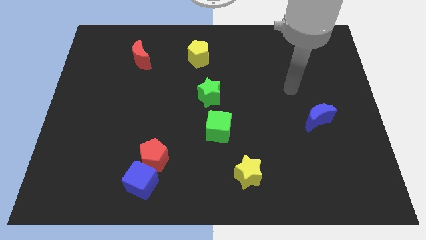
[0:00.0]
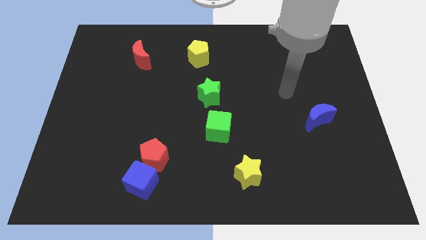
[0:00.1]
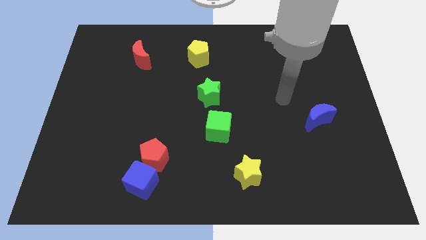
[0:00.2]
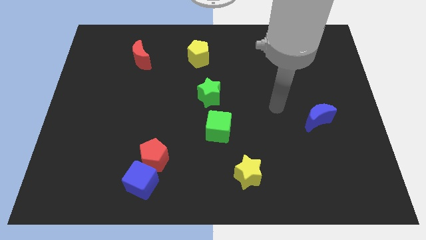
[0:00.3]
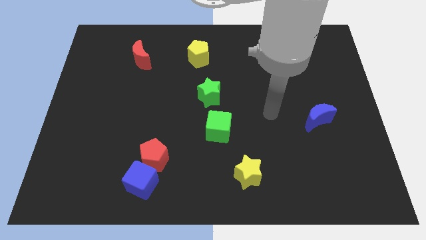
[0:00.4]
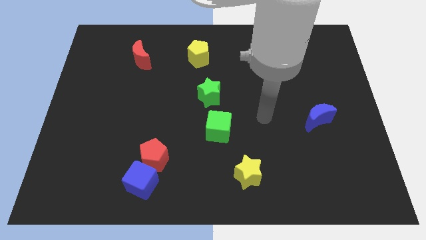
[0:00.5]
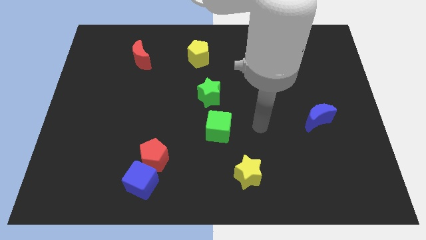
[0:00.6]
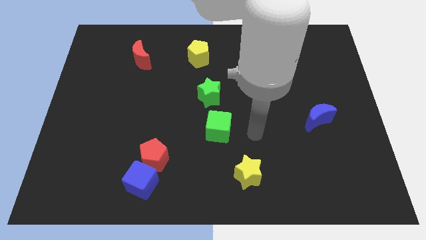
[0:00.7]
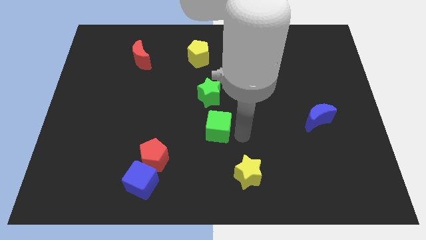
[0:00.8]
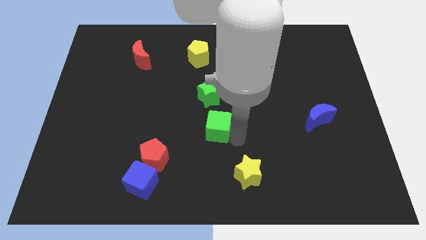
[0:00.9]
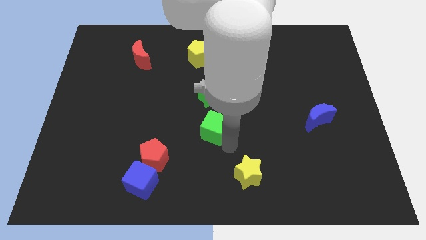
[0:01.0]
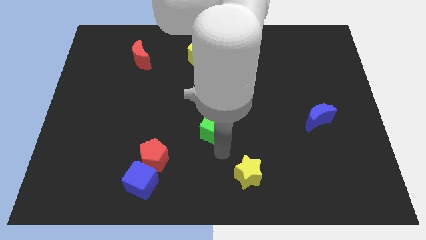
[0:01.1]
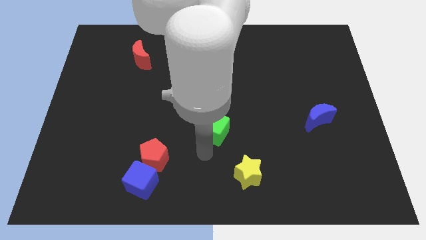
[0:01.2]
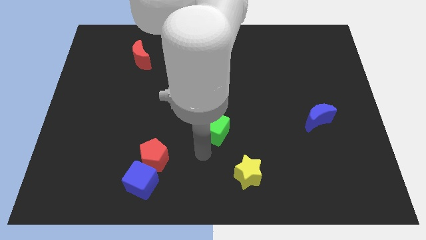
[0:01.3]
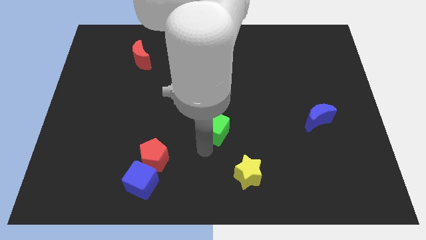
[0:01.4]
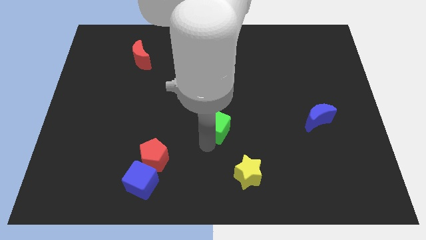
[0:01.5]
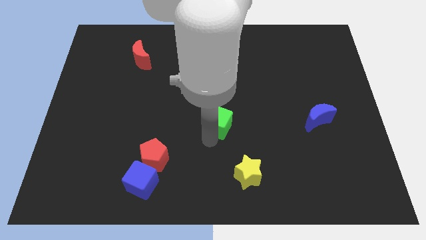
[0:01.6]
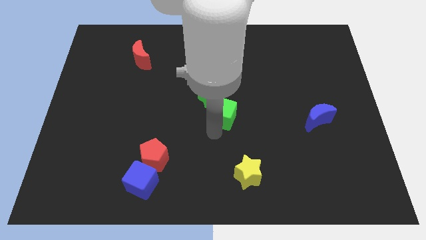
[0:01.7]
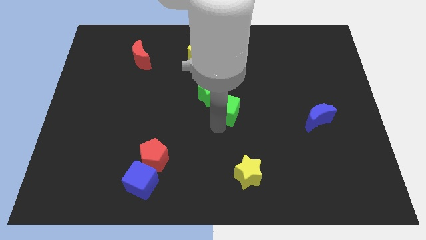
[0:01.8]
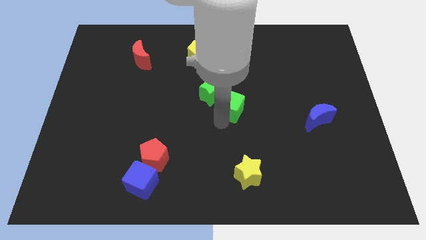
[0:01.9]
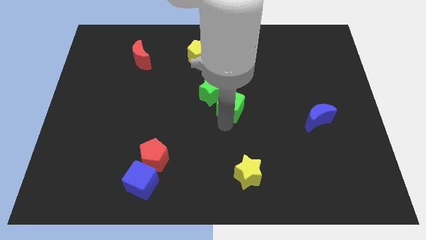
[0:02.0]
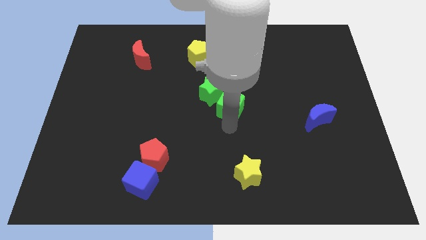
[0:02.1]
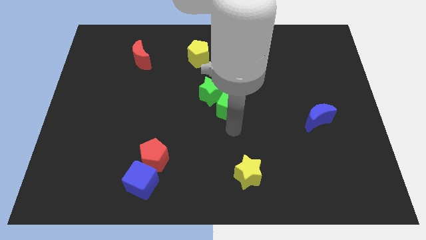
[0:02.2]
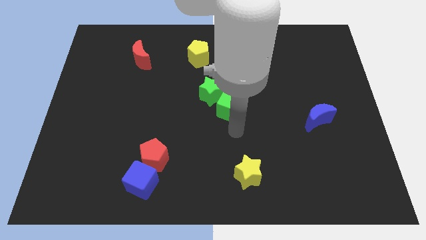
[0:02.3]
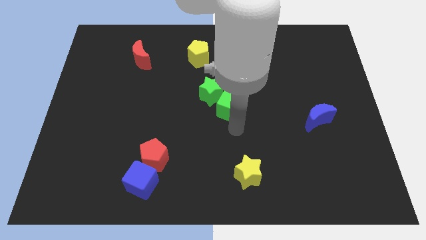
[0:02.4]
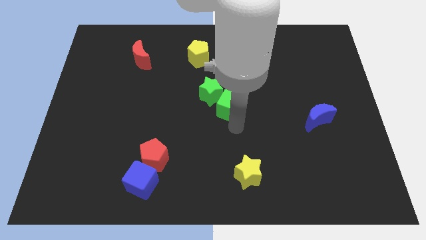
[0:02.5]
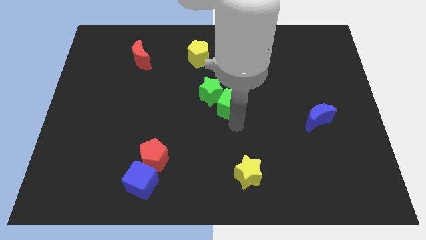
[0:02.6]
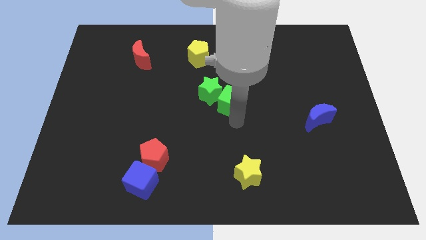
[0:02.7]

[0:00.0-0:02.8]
slide the green cube upwards slightly

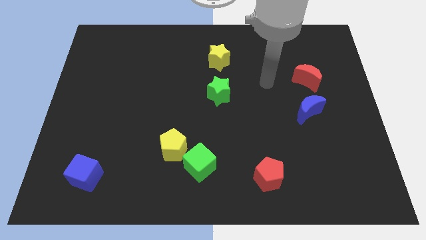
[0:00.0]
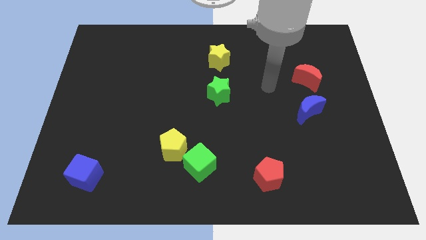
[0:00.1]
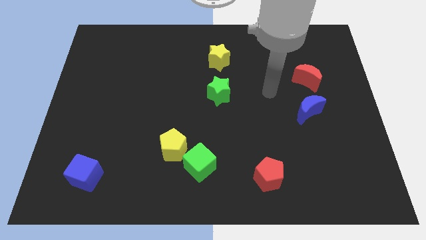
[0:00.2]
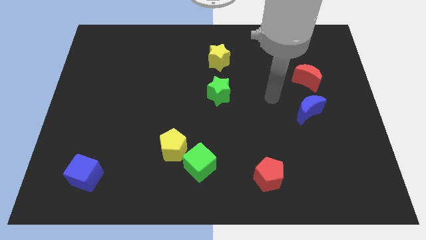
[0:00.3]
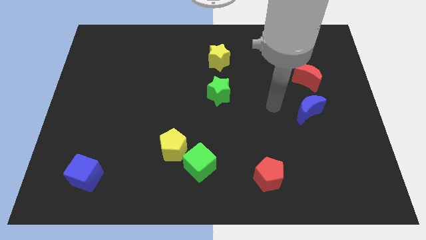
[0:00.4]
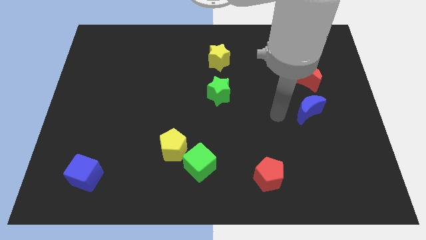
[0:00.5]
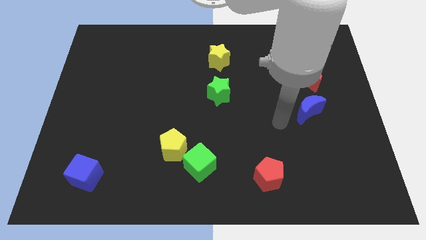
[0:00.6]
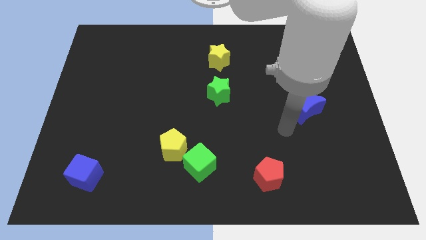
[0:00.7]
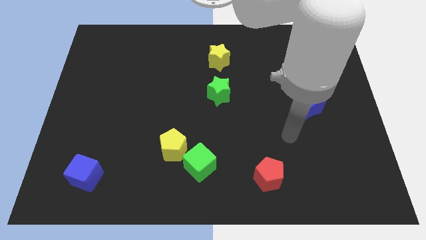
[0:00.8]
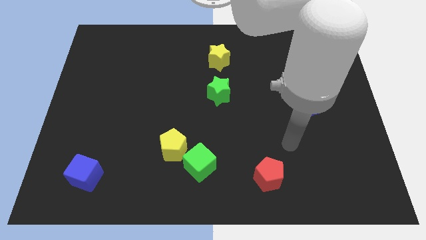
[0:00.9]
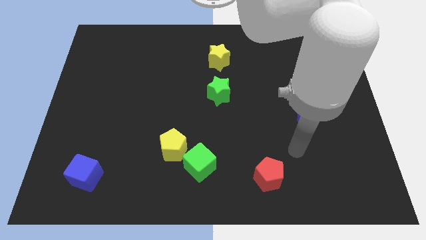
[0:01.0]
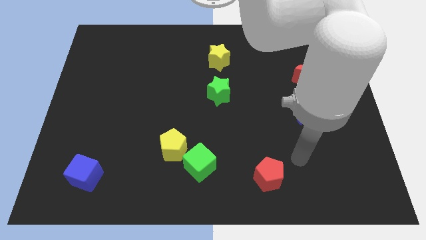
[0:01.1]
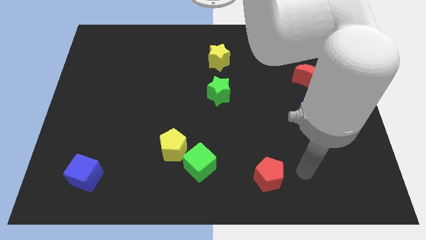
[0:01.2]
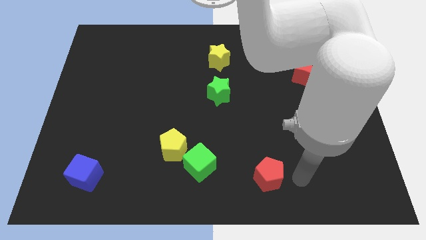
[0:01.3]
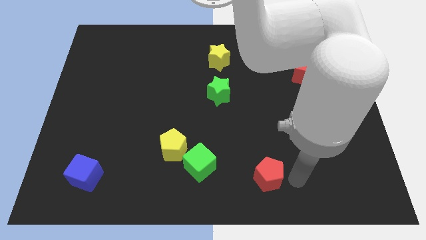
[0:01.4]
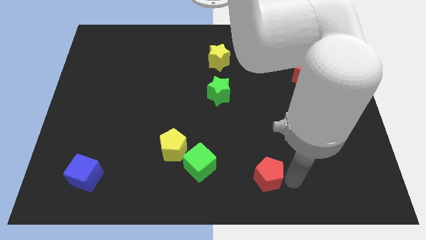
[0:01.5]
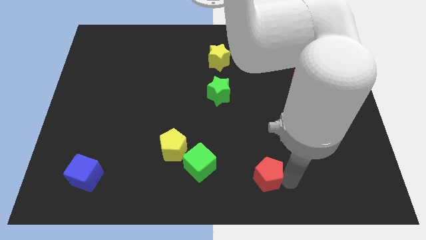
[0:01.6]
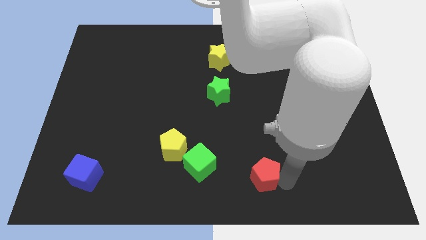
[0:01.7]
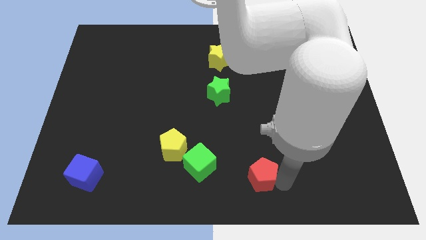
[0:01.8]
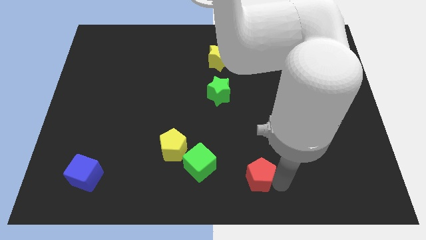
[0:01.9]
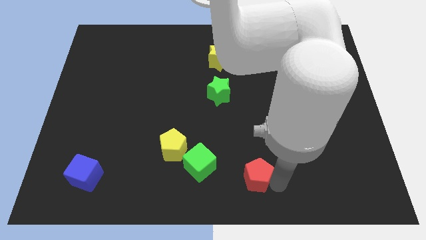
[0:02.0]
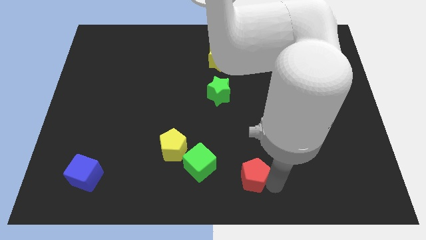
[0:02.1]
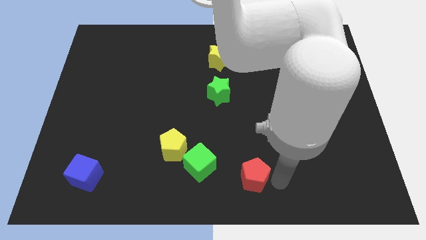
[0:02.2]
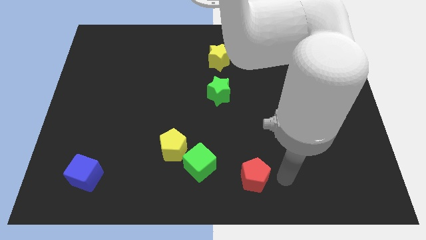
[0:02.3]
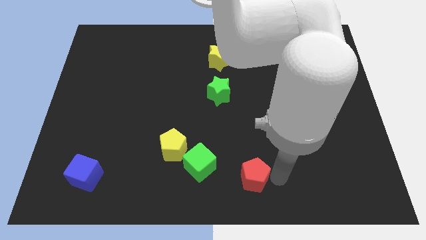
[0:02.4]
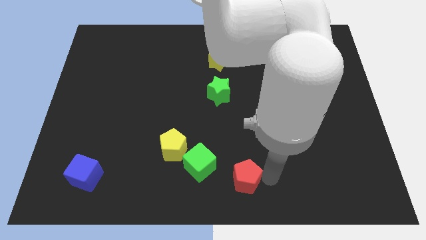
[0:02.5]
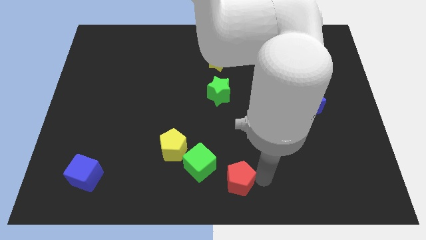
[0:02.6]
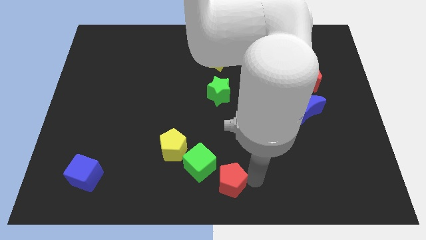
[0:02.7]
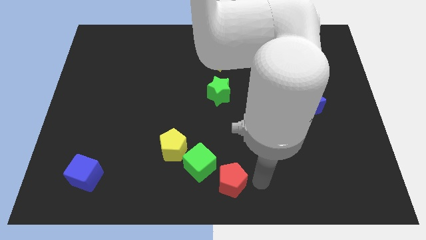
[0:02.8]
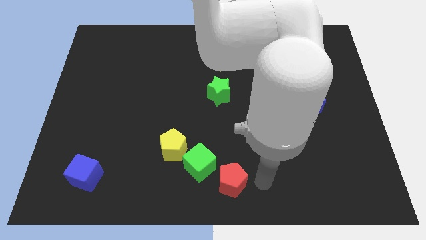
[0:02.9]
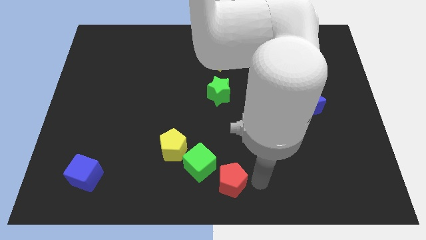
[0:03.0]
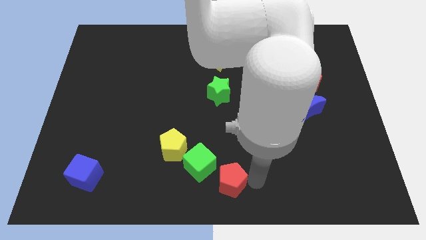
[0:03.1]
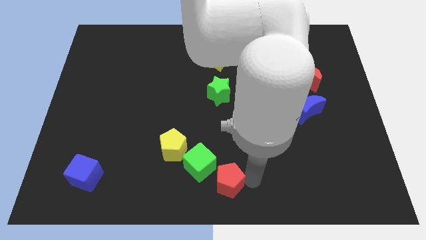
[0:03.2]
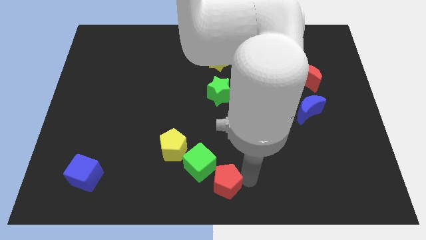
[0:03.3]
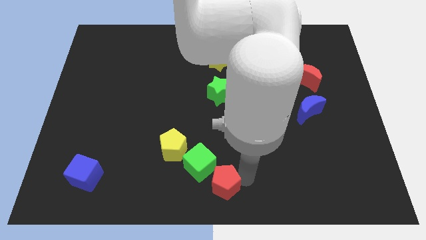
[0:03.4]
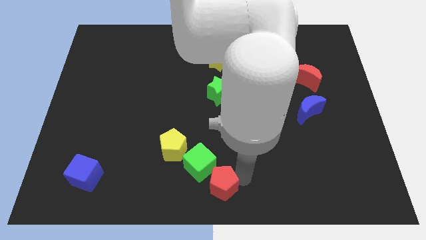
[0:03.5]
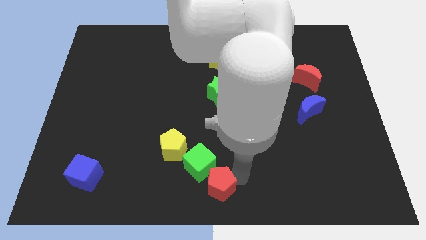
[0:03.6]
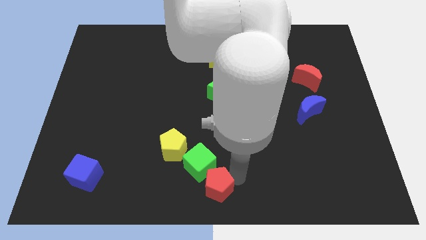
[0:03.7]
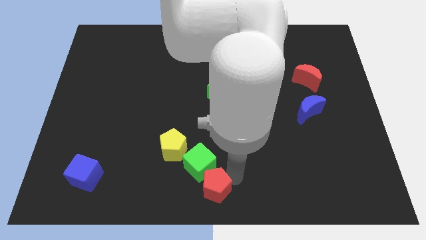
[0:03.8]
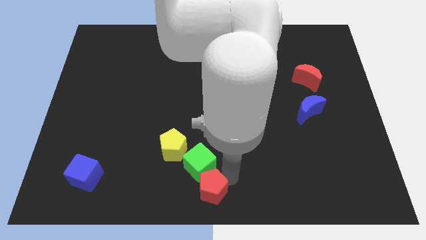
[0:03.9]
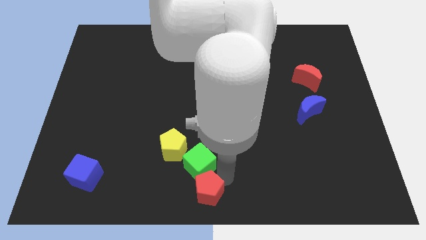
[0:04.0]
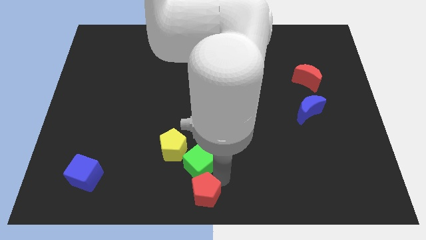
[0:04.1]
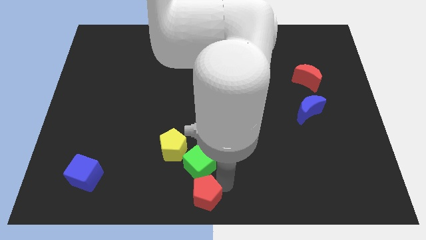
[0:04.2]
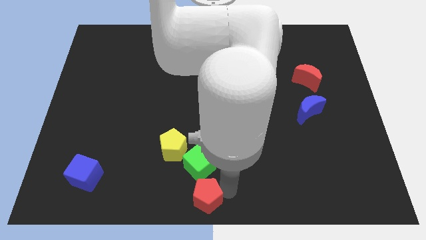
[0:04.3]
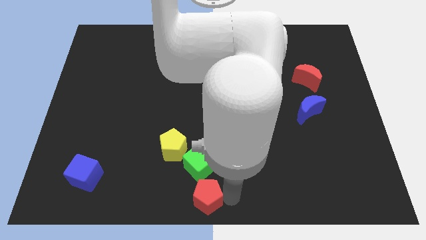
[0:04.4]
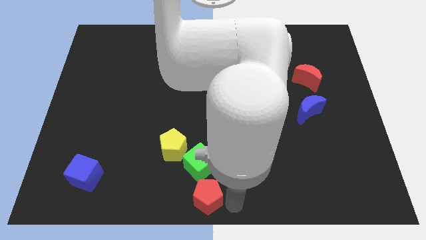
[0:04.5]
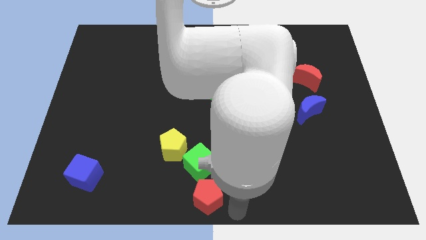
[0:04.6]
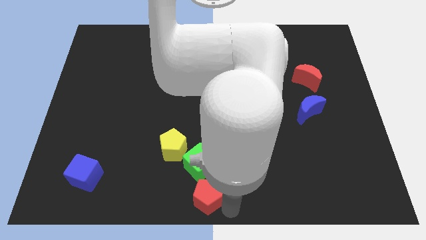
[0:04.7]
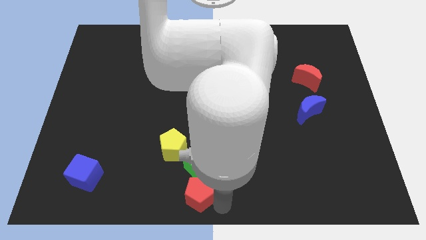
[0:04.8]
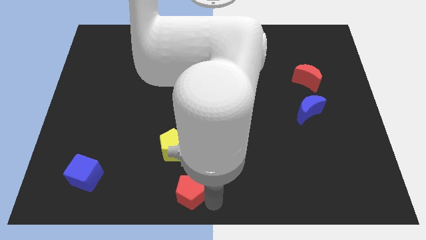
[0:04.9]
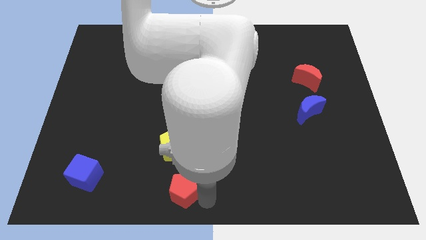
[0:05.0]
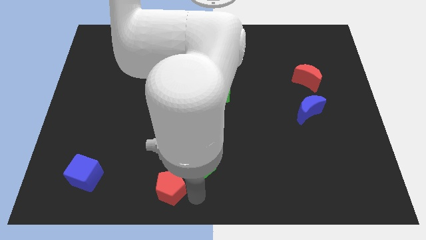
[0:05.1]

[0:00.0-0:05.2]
move the red pentagon to the left

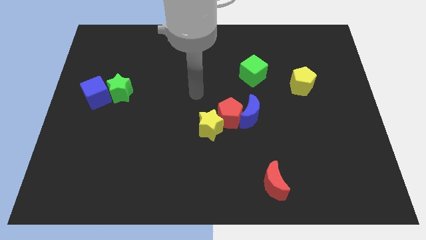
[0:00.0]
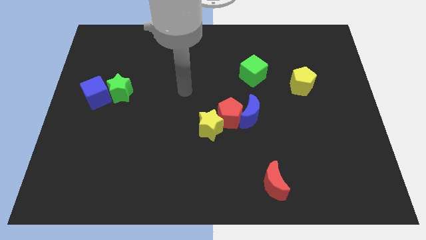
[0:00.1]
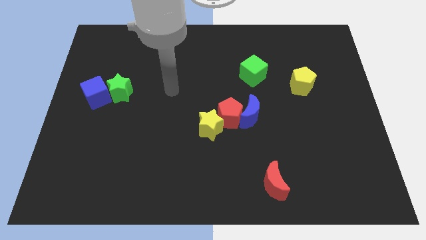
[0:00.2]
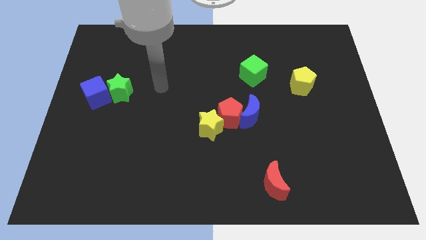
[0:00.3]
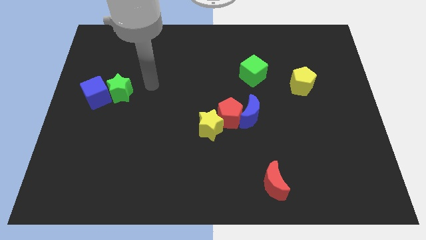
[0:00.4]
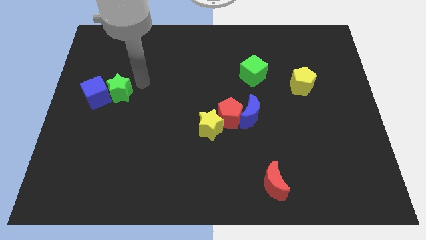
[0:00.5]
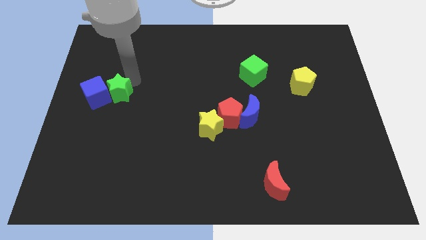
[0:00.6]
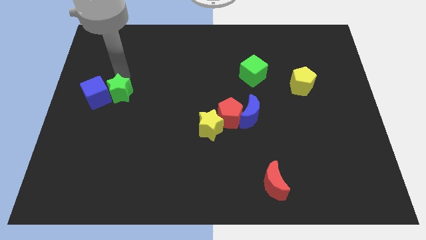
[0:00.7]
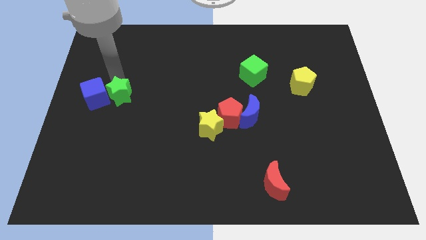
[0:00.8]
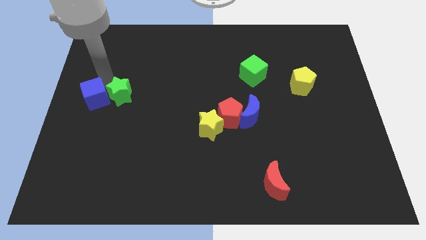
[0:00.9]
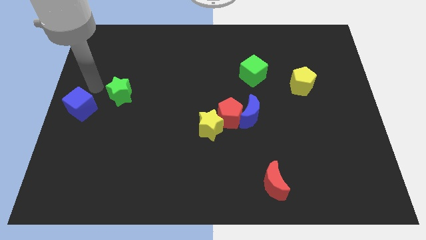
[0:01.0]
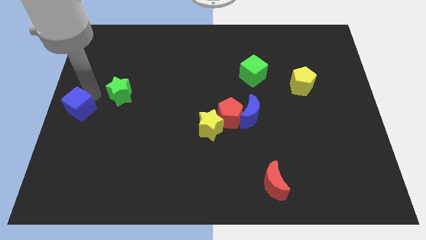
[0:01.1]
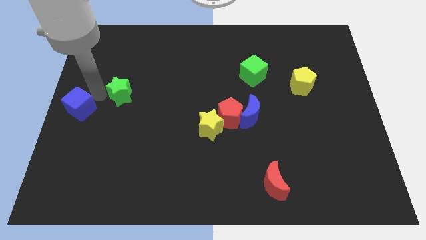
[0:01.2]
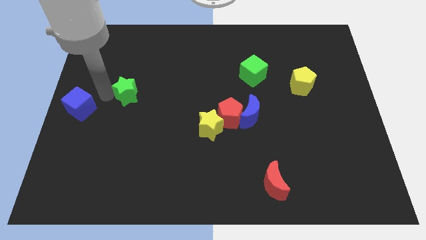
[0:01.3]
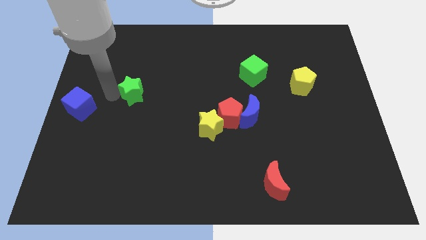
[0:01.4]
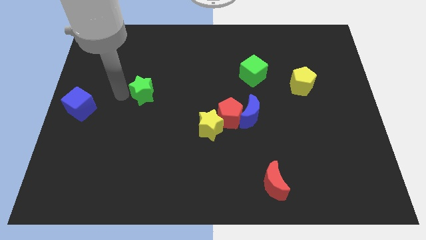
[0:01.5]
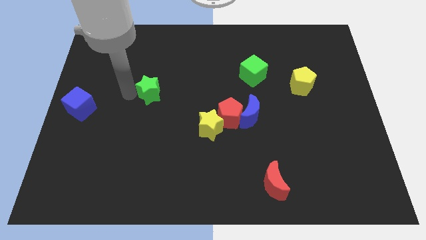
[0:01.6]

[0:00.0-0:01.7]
push the green star right somewhat
